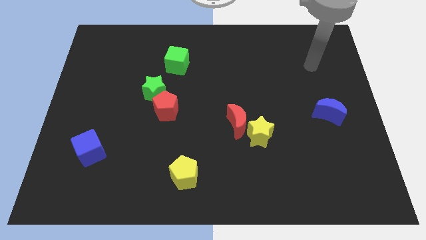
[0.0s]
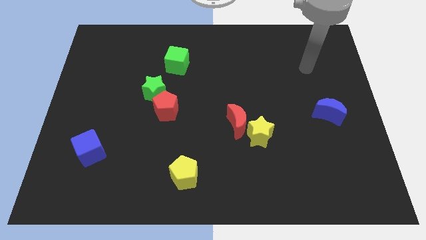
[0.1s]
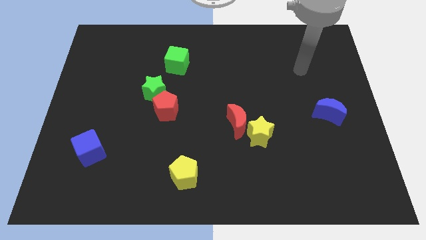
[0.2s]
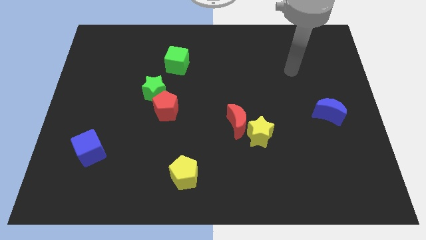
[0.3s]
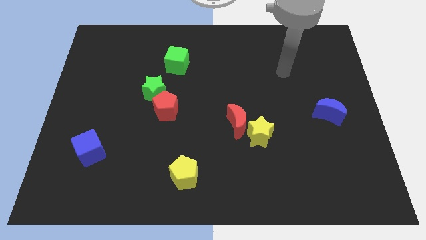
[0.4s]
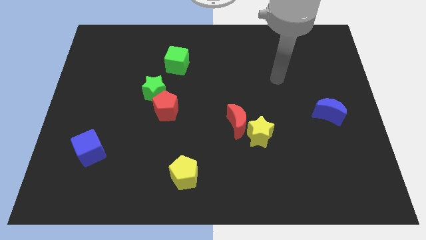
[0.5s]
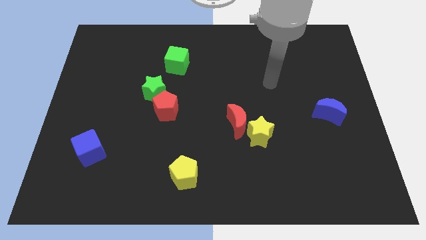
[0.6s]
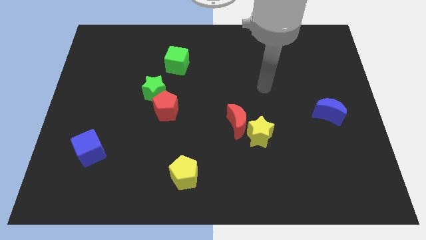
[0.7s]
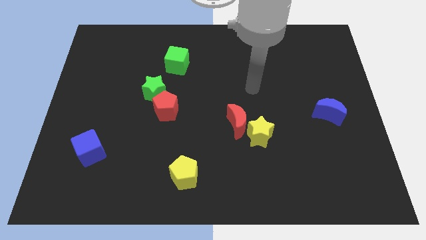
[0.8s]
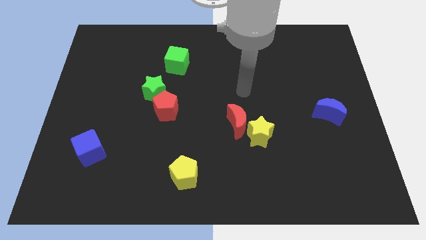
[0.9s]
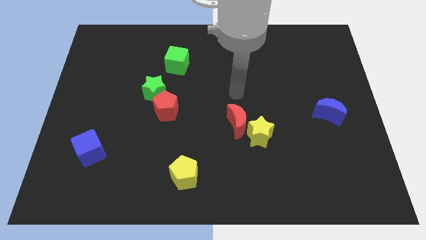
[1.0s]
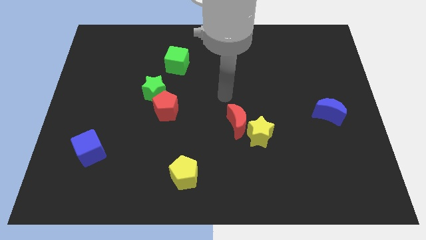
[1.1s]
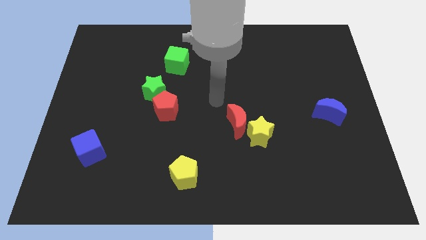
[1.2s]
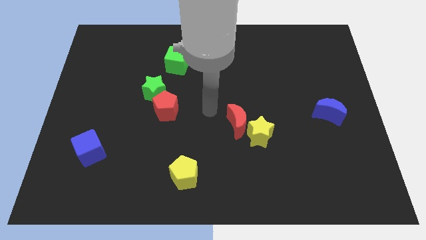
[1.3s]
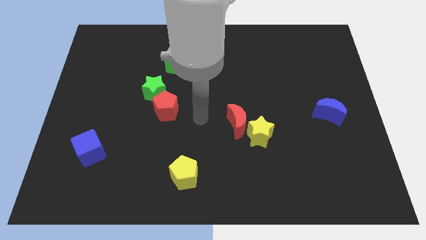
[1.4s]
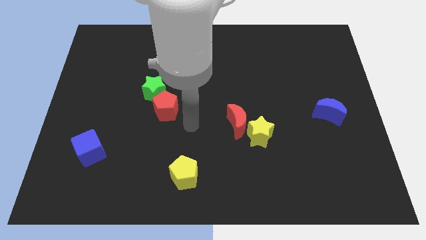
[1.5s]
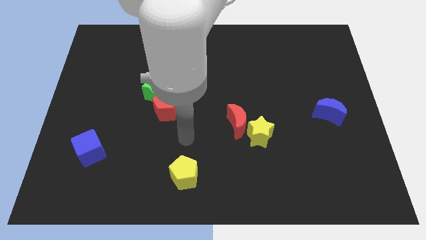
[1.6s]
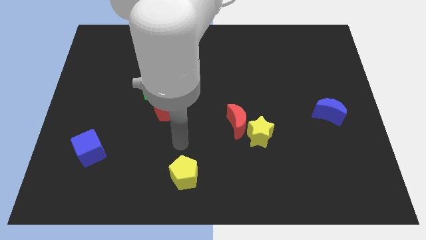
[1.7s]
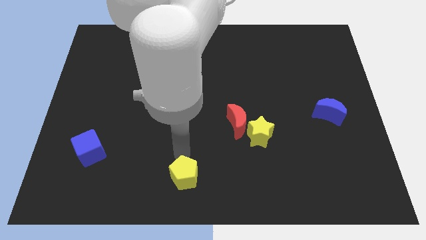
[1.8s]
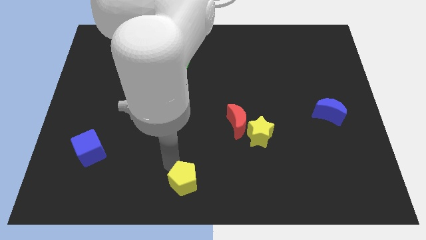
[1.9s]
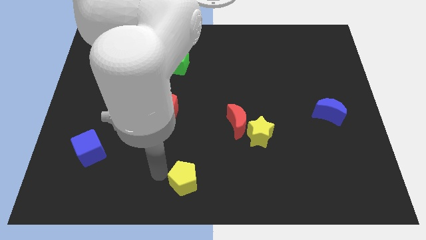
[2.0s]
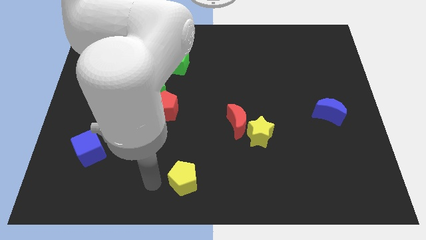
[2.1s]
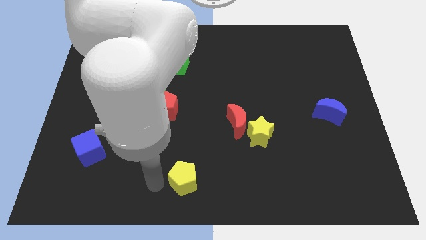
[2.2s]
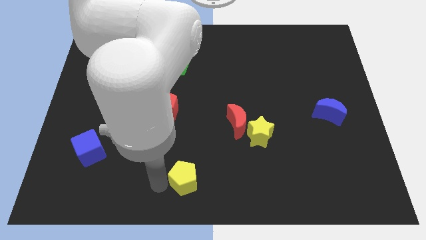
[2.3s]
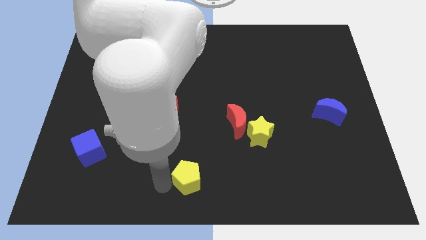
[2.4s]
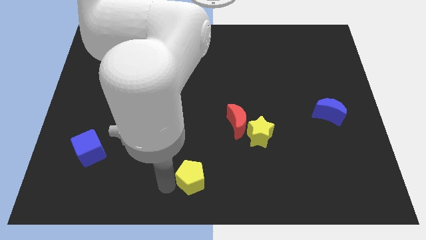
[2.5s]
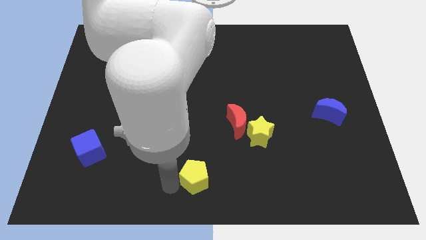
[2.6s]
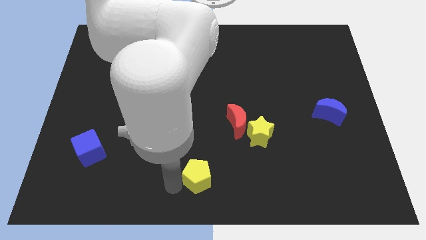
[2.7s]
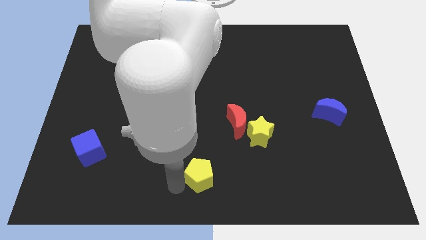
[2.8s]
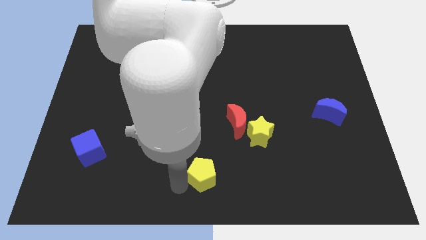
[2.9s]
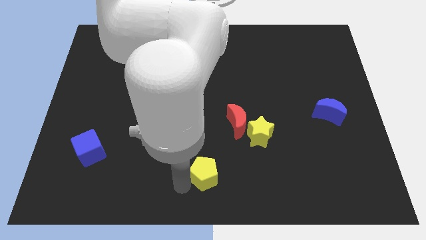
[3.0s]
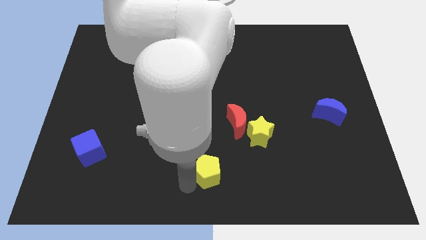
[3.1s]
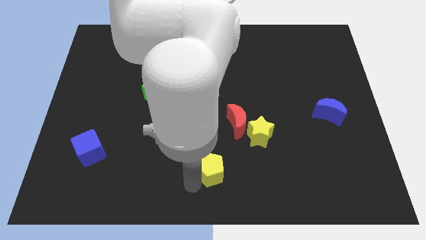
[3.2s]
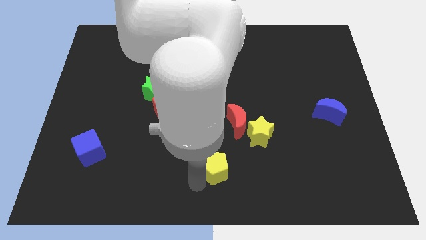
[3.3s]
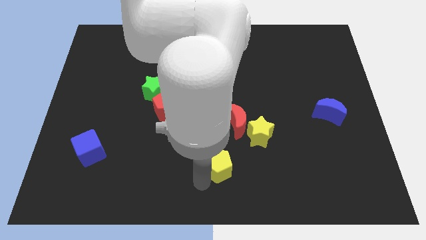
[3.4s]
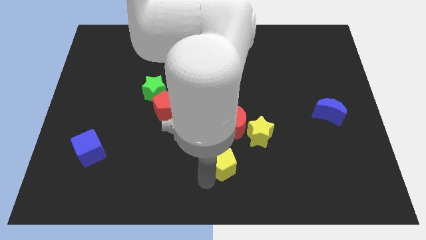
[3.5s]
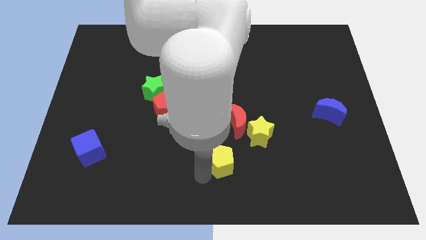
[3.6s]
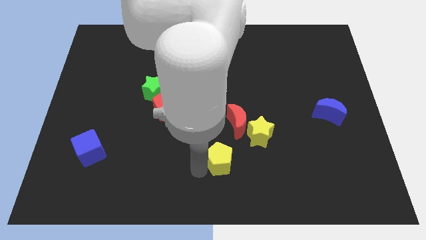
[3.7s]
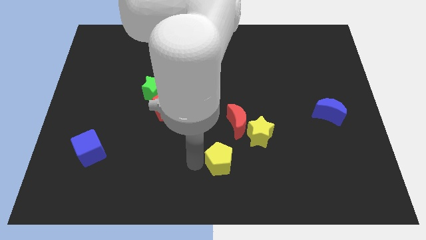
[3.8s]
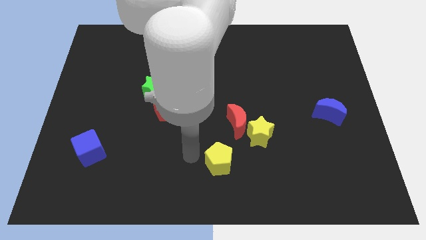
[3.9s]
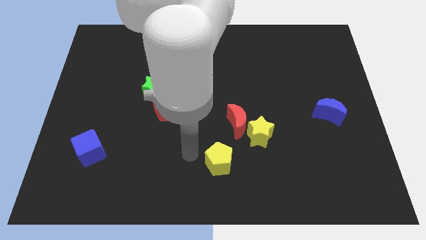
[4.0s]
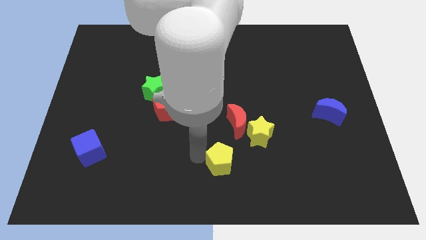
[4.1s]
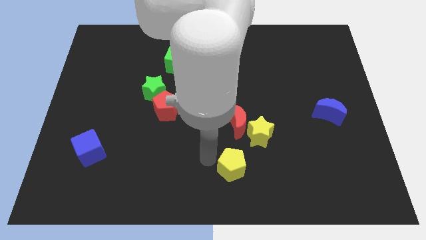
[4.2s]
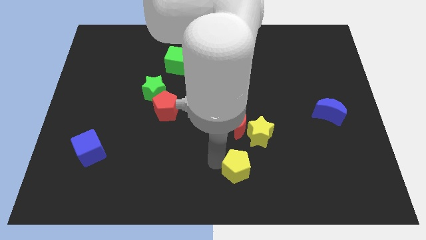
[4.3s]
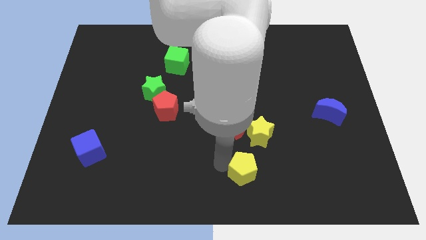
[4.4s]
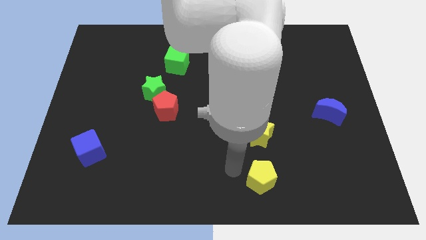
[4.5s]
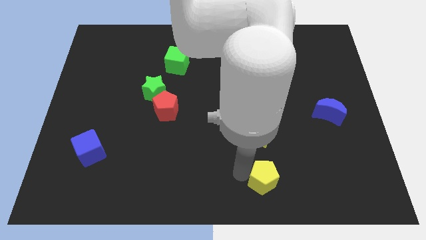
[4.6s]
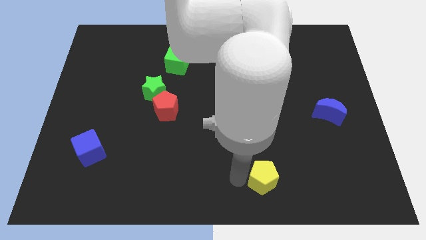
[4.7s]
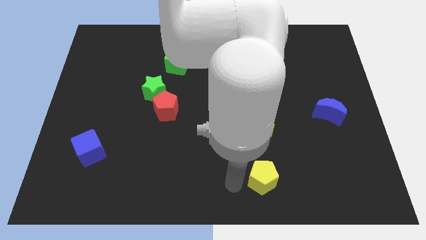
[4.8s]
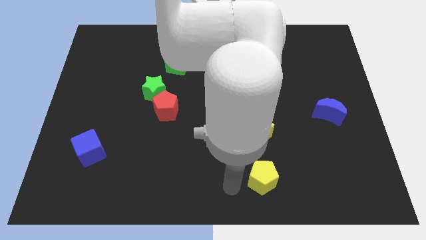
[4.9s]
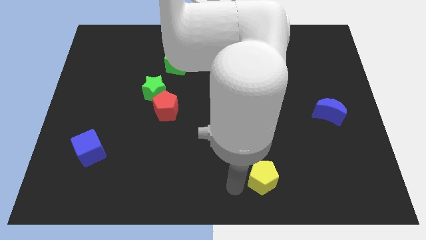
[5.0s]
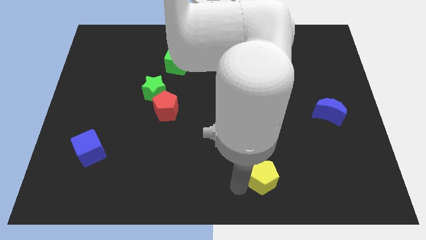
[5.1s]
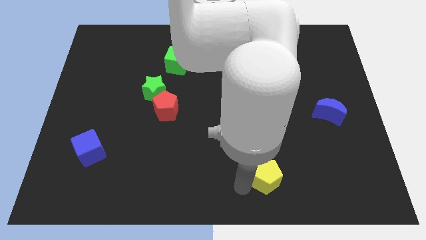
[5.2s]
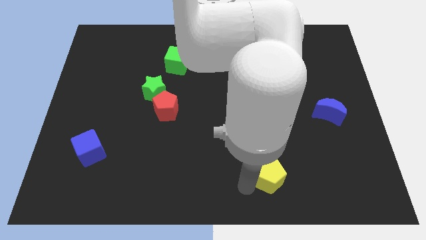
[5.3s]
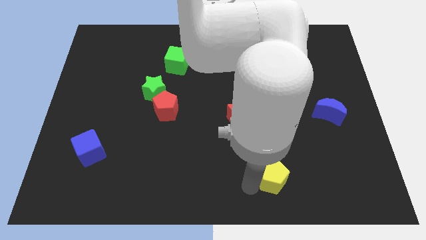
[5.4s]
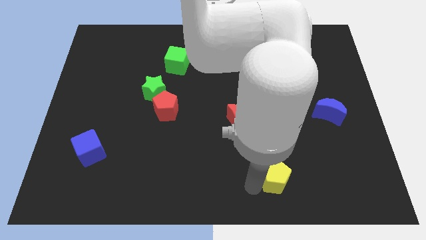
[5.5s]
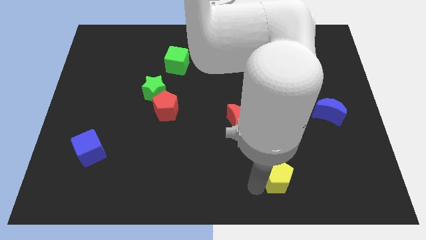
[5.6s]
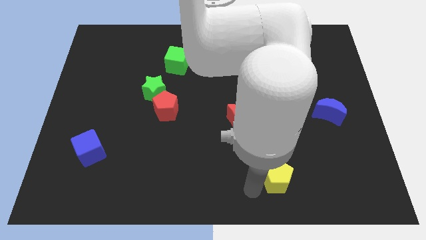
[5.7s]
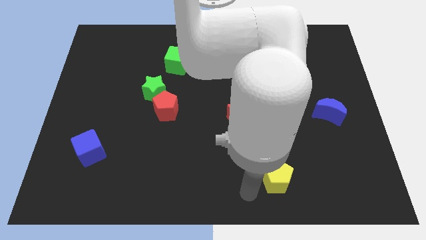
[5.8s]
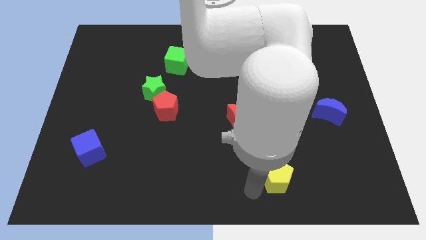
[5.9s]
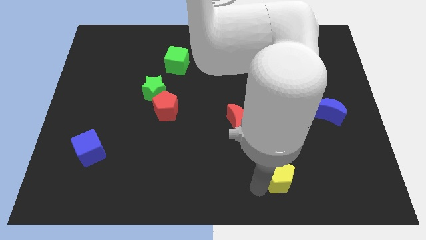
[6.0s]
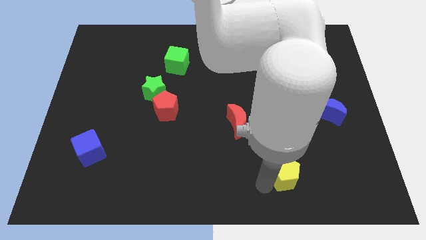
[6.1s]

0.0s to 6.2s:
move the yellow pentagon to the right

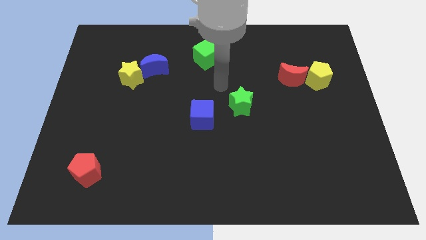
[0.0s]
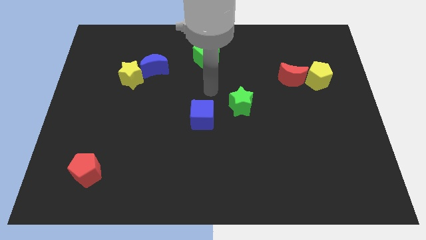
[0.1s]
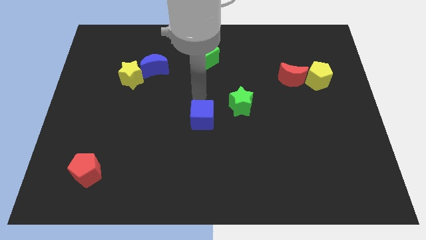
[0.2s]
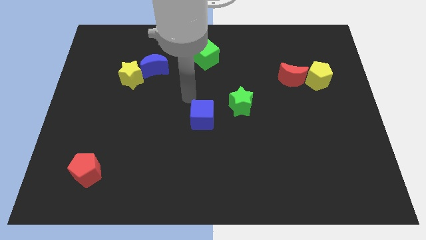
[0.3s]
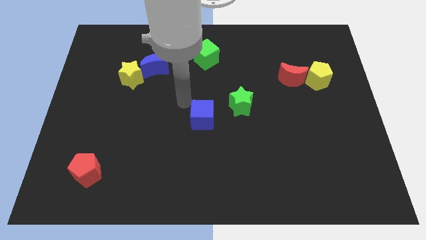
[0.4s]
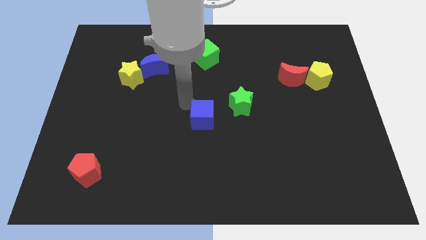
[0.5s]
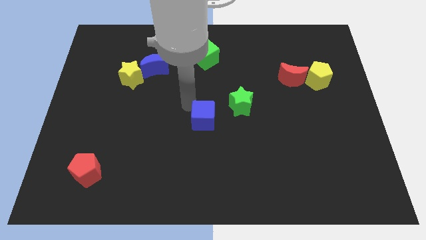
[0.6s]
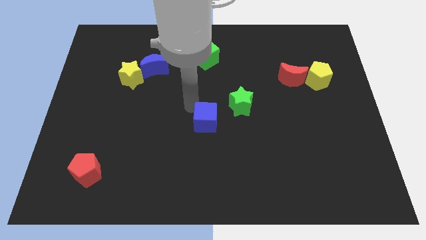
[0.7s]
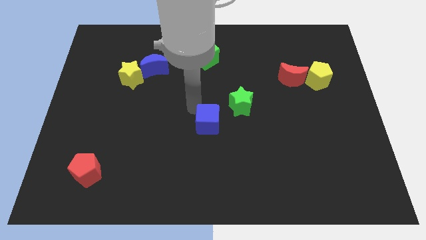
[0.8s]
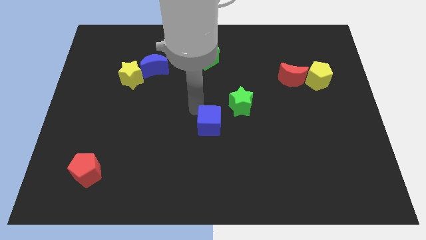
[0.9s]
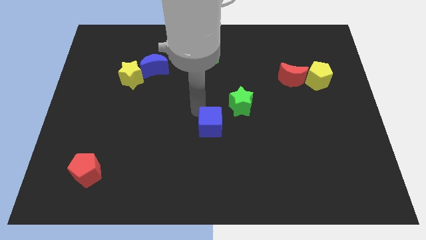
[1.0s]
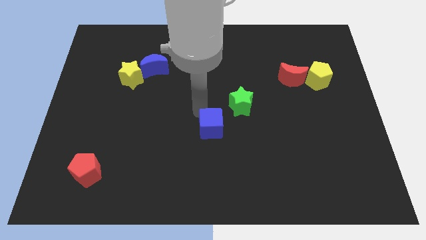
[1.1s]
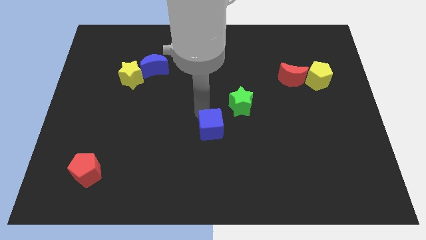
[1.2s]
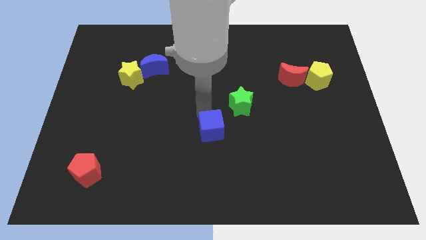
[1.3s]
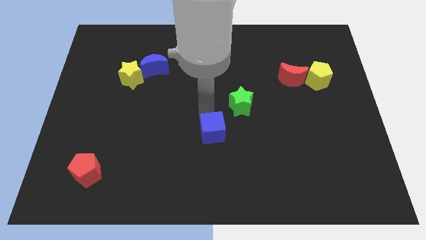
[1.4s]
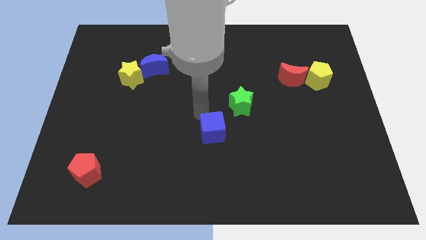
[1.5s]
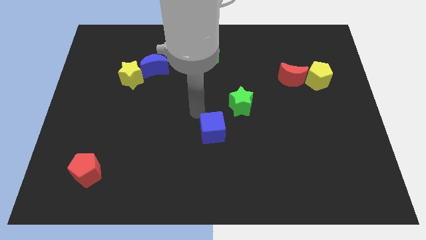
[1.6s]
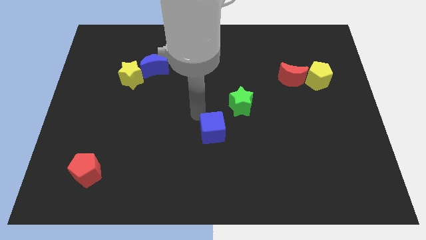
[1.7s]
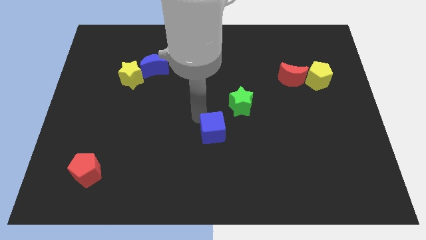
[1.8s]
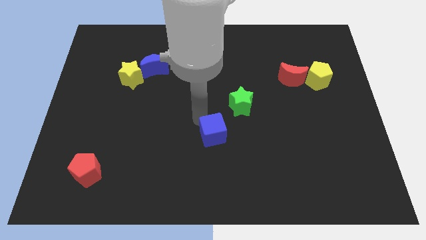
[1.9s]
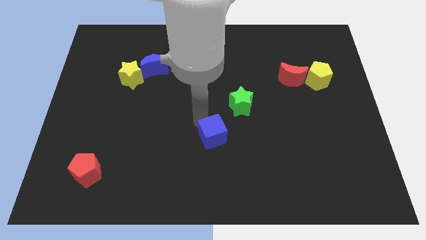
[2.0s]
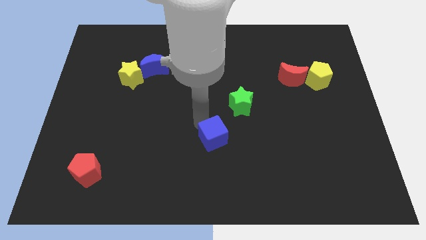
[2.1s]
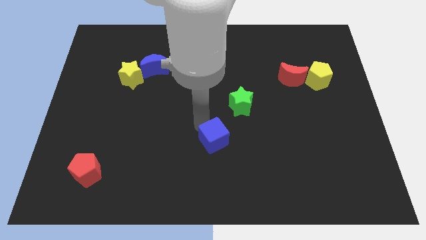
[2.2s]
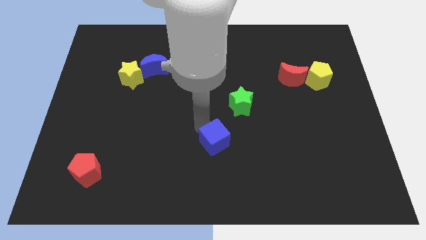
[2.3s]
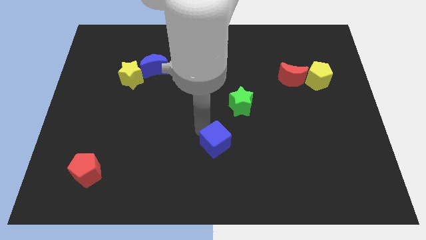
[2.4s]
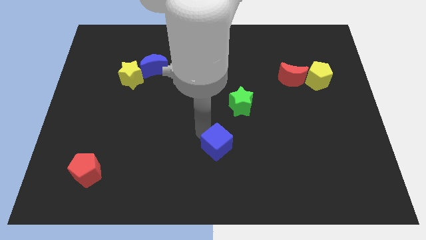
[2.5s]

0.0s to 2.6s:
push the blue cube downwards and then to the right a bit
